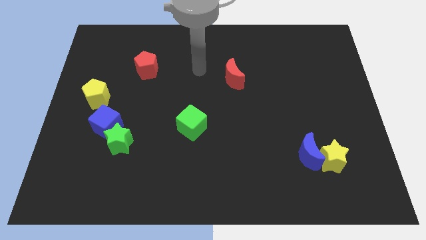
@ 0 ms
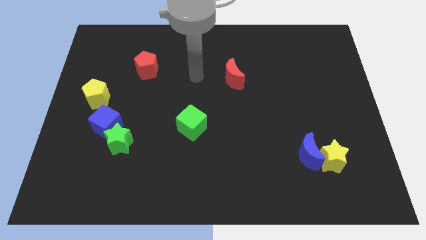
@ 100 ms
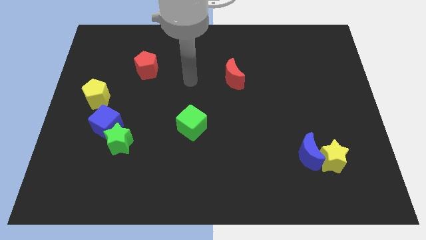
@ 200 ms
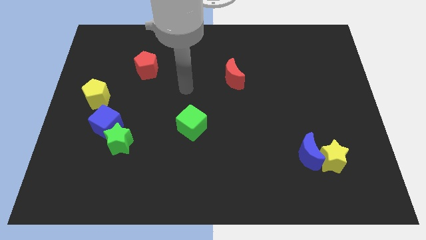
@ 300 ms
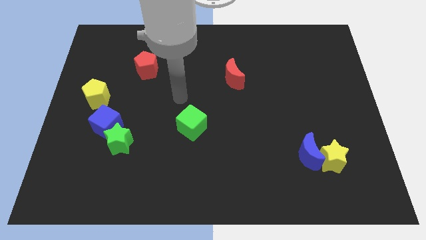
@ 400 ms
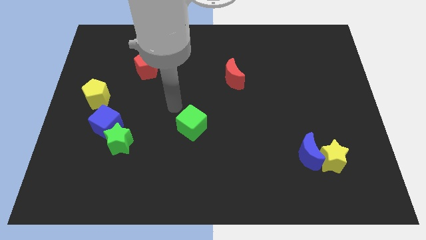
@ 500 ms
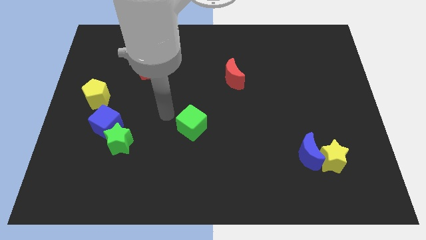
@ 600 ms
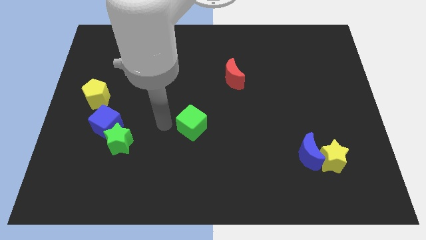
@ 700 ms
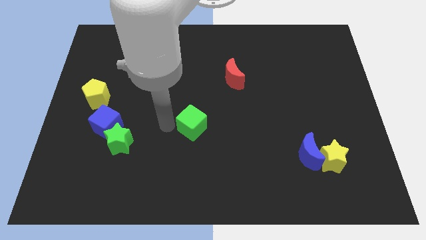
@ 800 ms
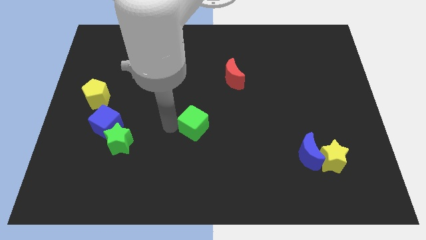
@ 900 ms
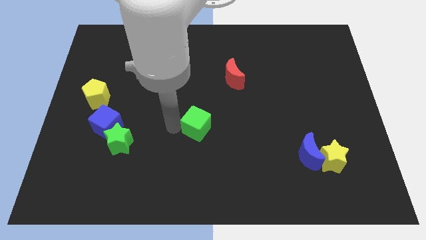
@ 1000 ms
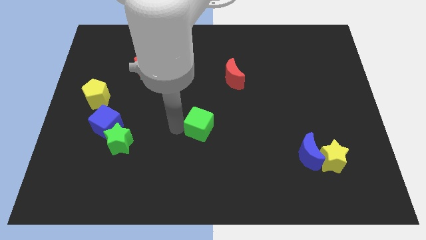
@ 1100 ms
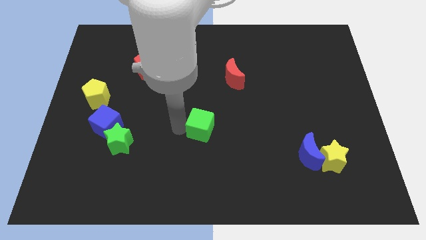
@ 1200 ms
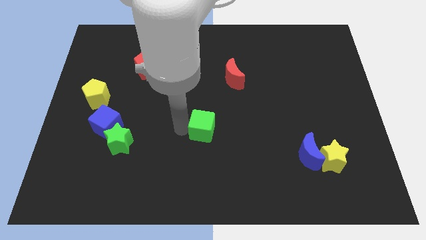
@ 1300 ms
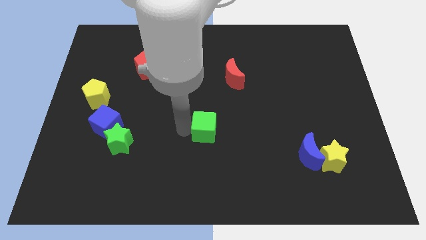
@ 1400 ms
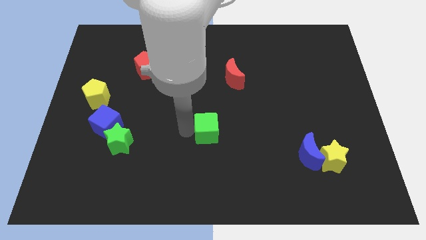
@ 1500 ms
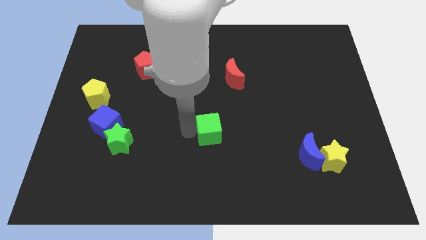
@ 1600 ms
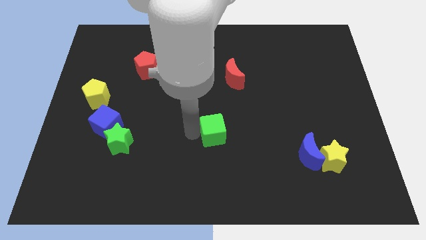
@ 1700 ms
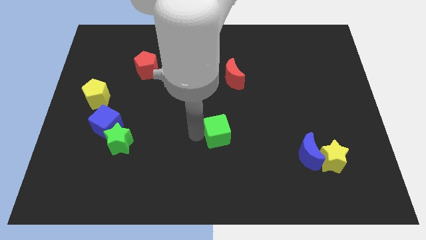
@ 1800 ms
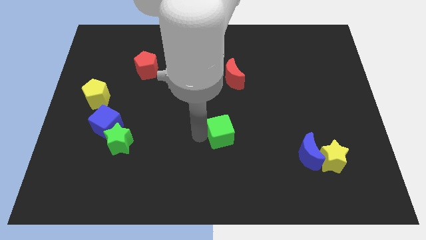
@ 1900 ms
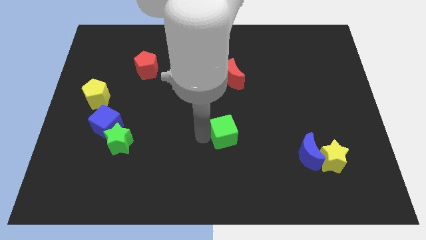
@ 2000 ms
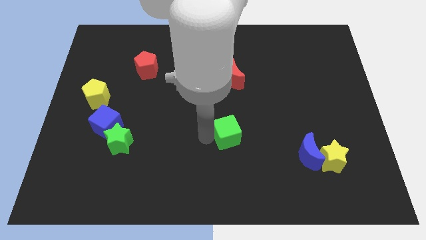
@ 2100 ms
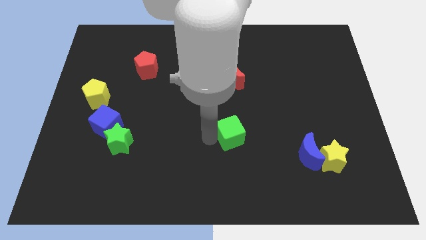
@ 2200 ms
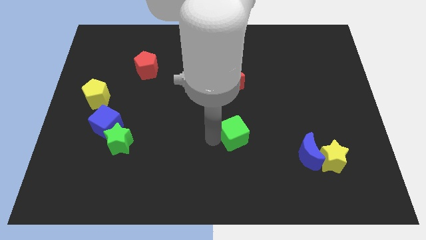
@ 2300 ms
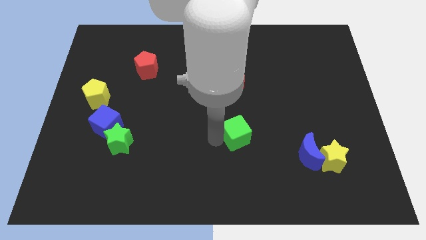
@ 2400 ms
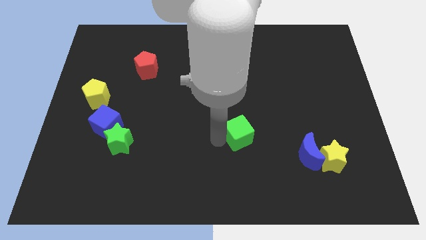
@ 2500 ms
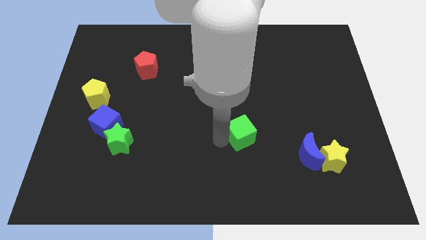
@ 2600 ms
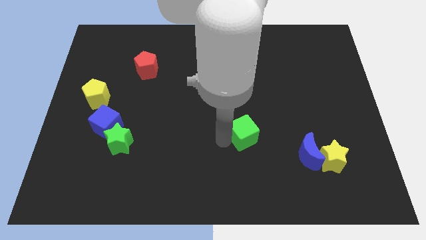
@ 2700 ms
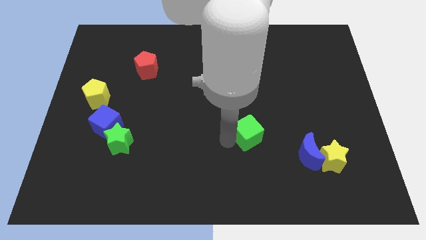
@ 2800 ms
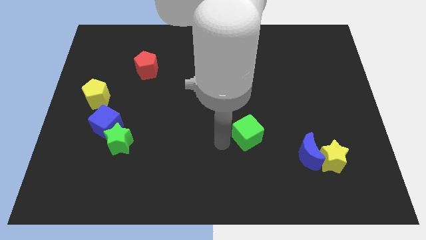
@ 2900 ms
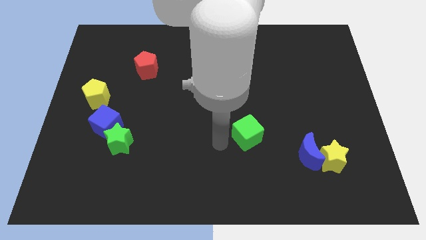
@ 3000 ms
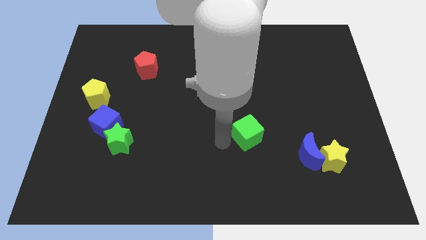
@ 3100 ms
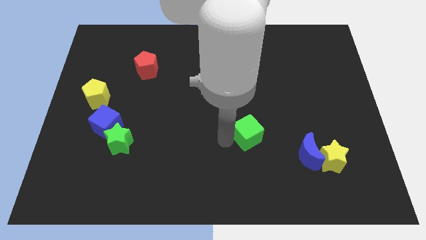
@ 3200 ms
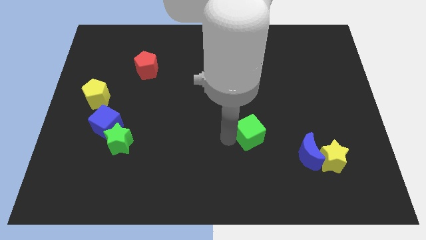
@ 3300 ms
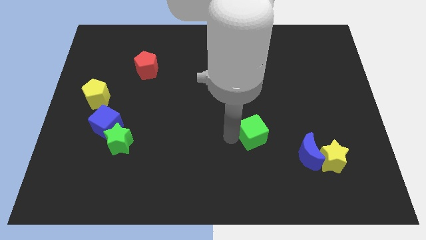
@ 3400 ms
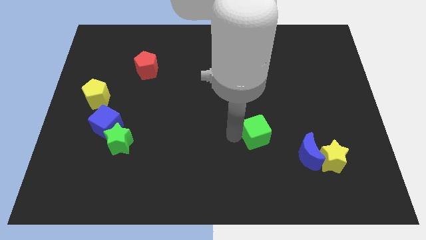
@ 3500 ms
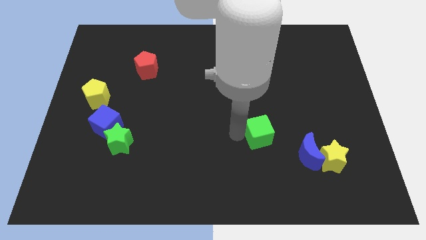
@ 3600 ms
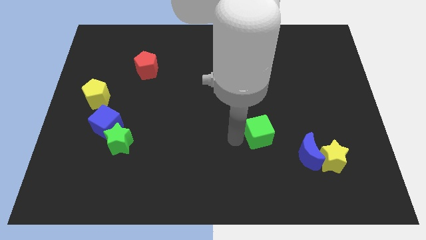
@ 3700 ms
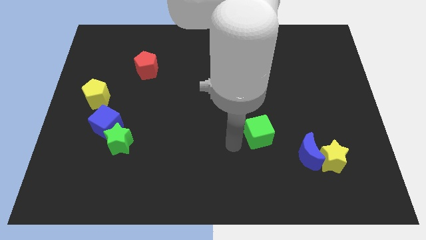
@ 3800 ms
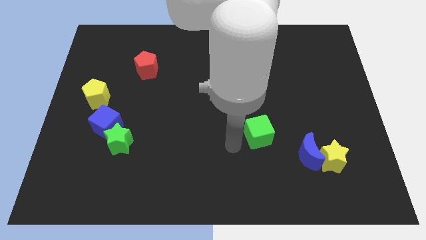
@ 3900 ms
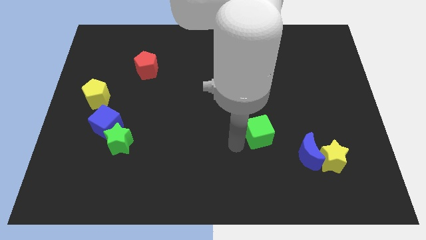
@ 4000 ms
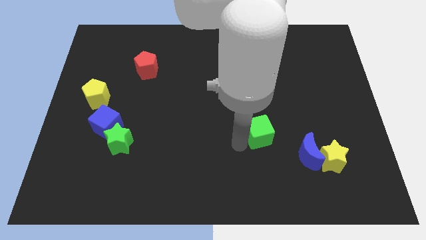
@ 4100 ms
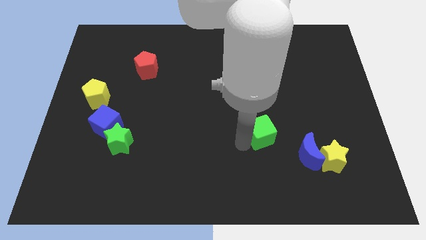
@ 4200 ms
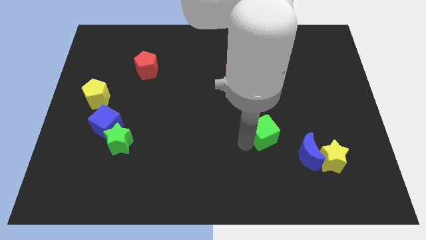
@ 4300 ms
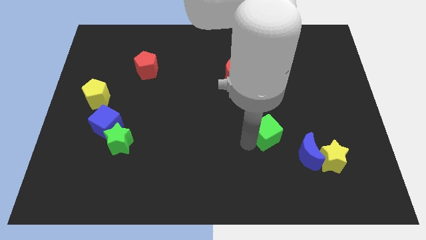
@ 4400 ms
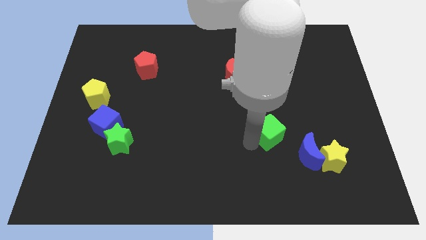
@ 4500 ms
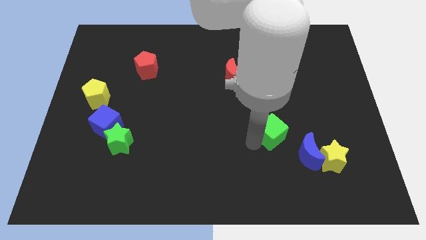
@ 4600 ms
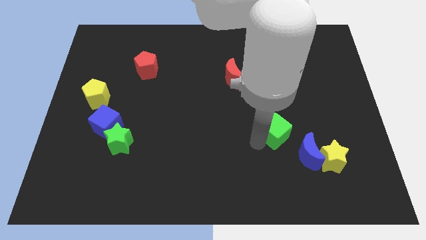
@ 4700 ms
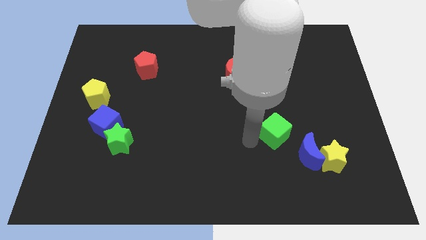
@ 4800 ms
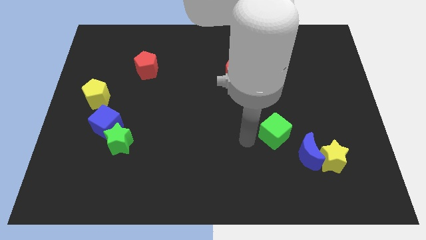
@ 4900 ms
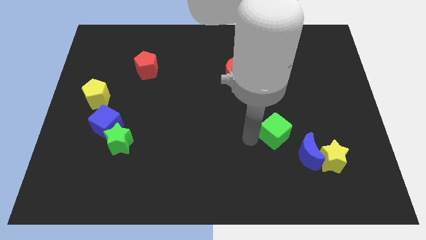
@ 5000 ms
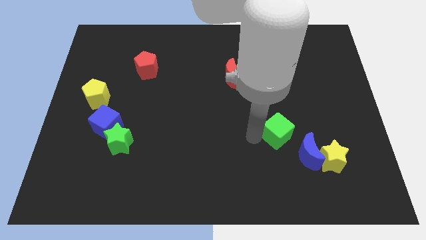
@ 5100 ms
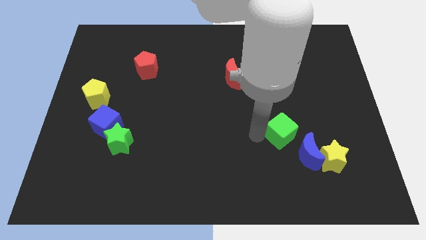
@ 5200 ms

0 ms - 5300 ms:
slide the green cube right

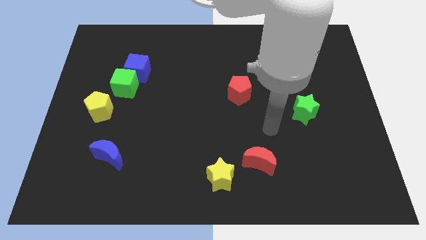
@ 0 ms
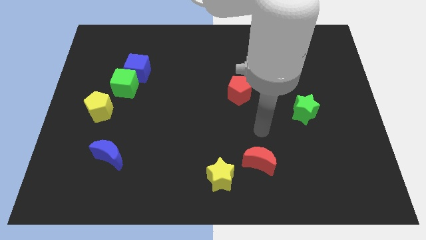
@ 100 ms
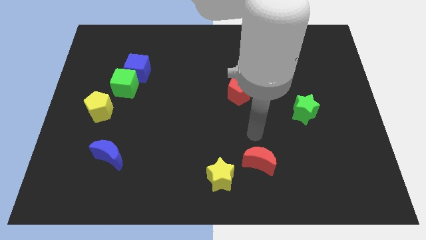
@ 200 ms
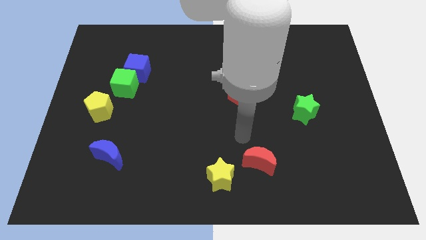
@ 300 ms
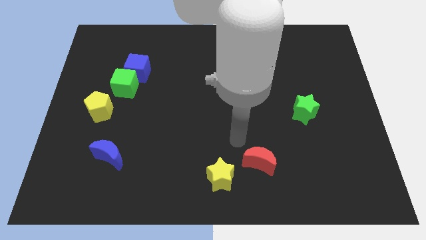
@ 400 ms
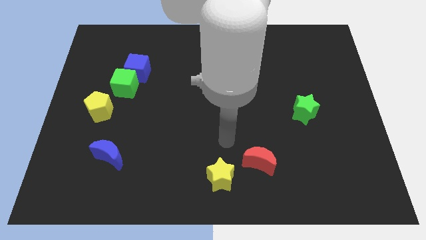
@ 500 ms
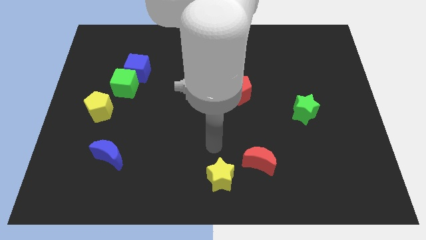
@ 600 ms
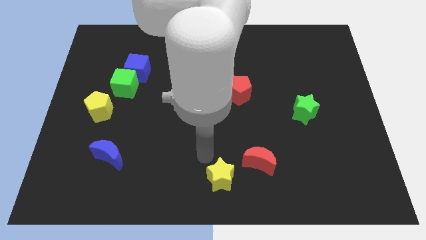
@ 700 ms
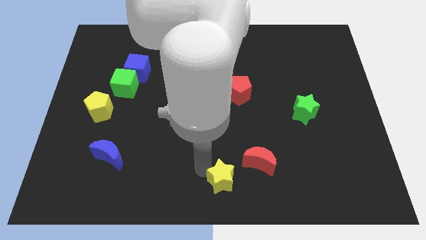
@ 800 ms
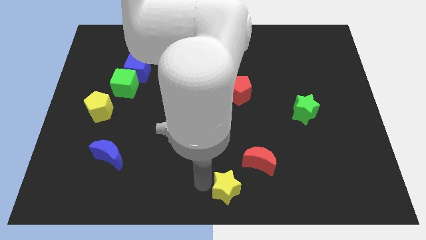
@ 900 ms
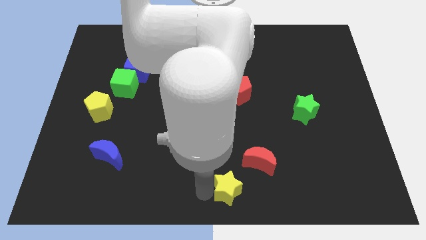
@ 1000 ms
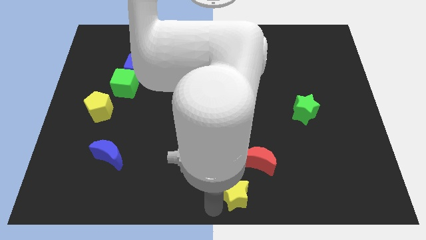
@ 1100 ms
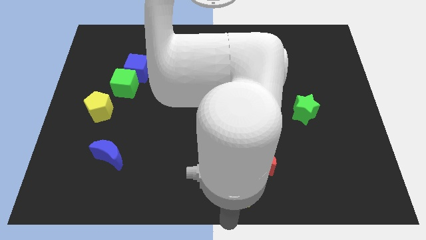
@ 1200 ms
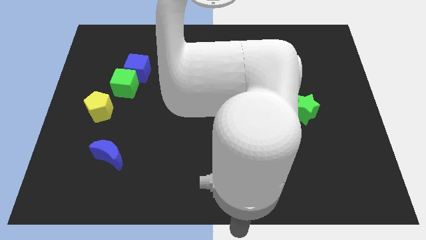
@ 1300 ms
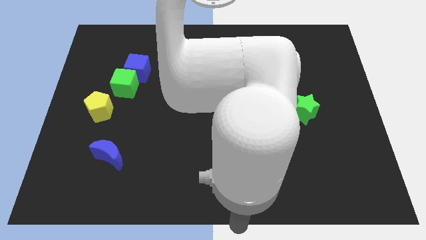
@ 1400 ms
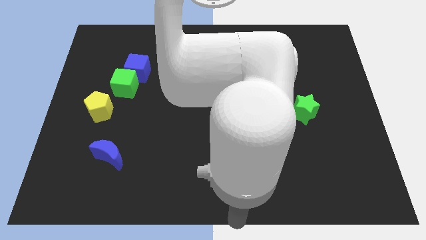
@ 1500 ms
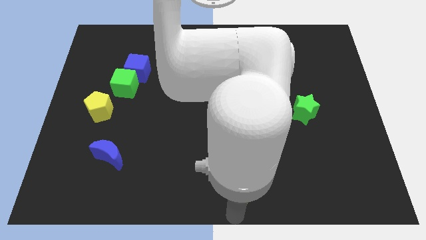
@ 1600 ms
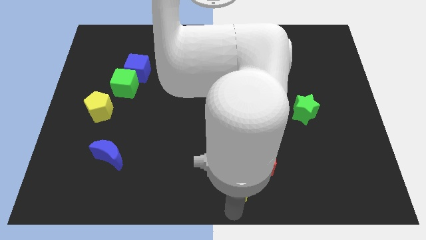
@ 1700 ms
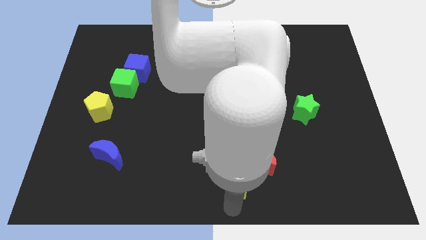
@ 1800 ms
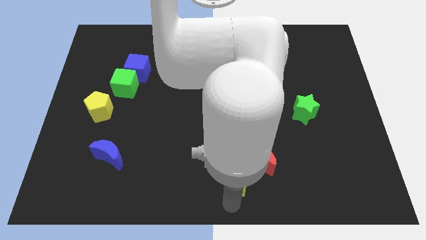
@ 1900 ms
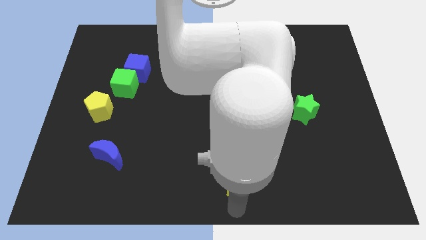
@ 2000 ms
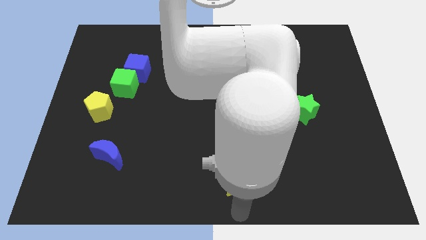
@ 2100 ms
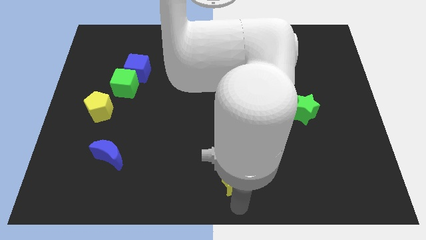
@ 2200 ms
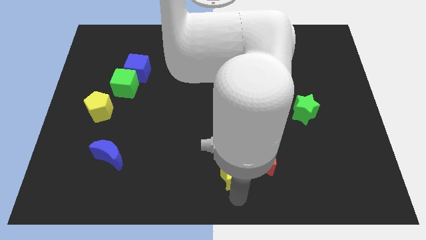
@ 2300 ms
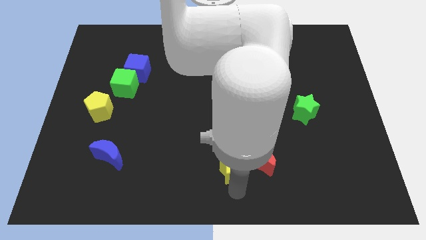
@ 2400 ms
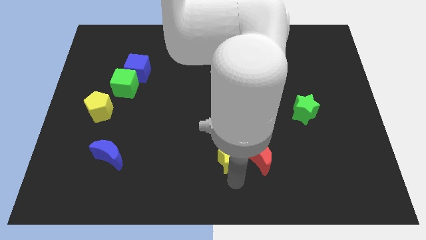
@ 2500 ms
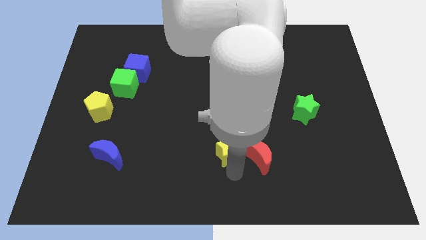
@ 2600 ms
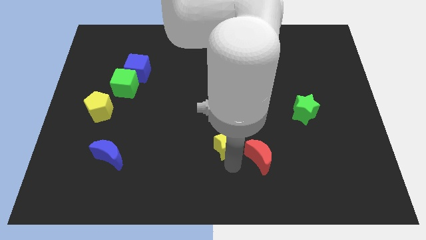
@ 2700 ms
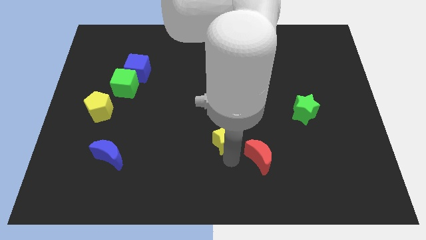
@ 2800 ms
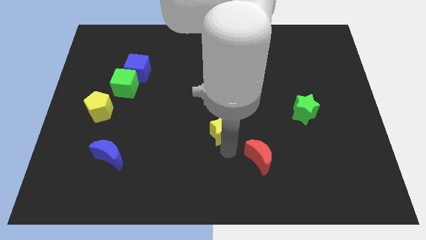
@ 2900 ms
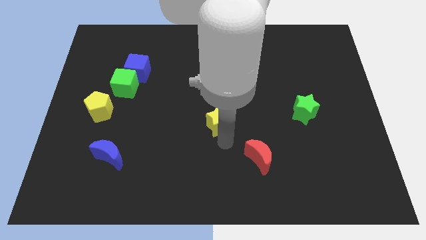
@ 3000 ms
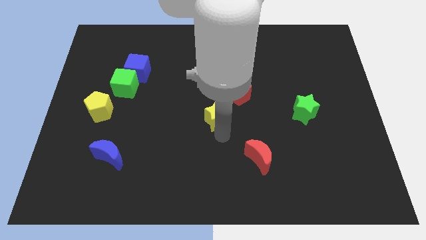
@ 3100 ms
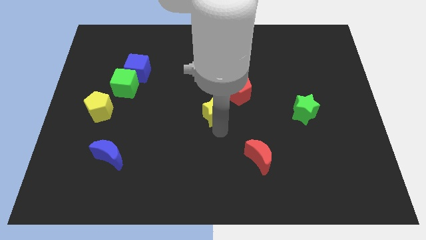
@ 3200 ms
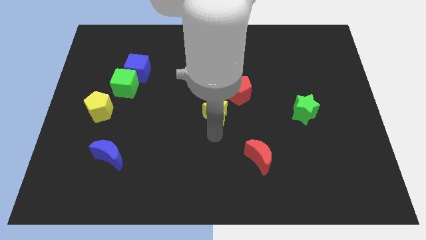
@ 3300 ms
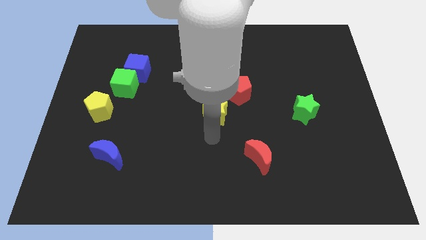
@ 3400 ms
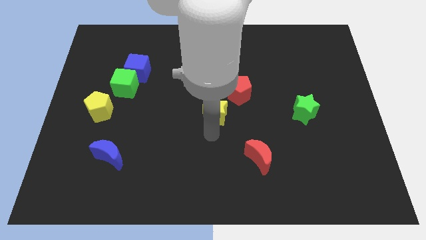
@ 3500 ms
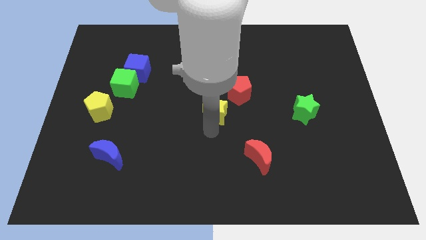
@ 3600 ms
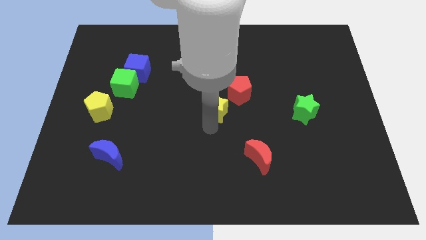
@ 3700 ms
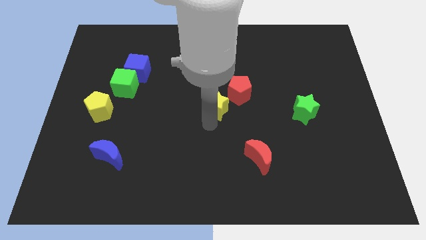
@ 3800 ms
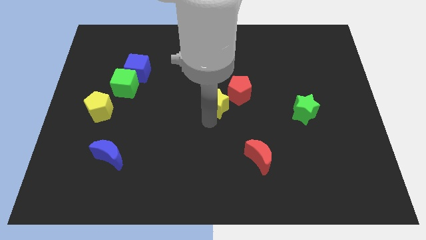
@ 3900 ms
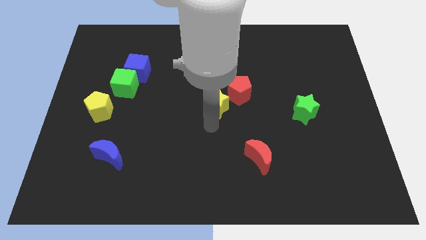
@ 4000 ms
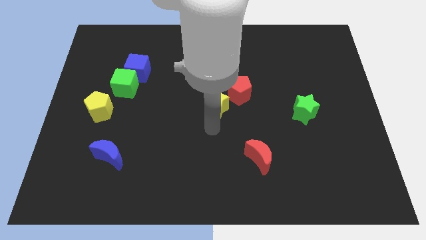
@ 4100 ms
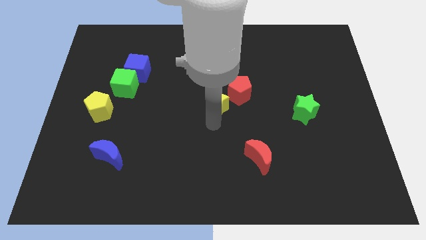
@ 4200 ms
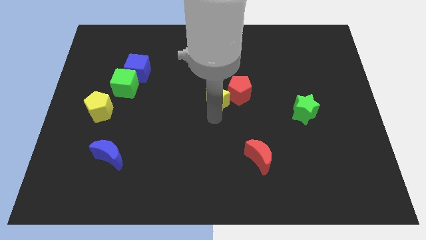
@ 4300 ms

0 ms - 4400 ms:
move the yellow star up
